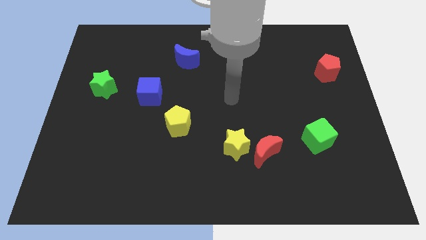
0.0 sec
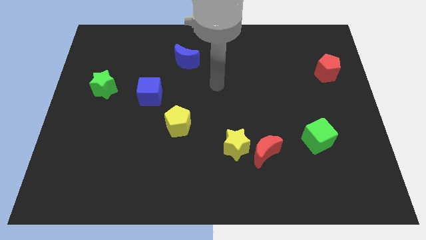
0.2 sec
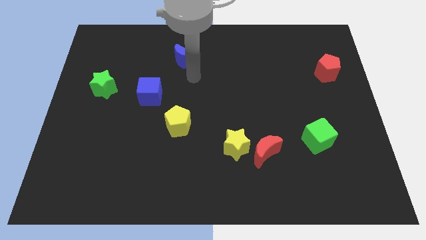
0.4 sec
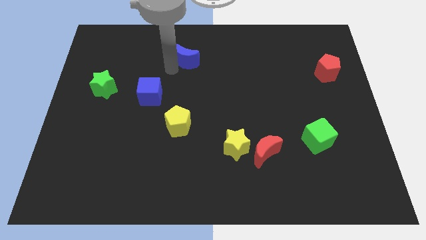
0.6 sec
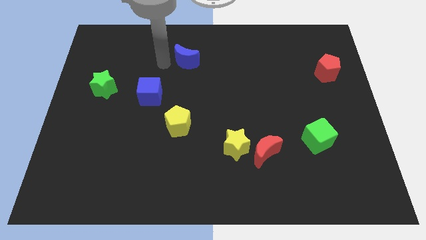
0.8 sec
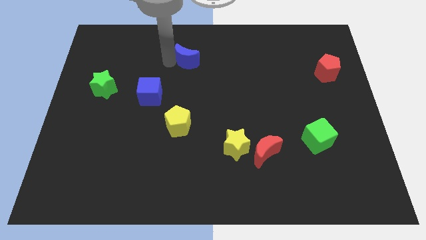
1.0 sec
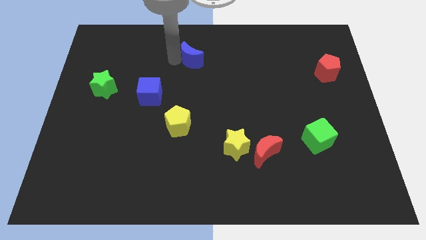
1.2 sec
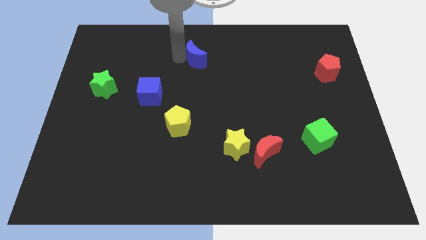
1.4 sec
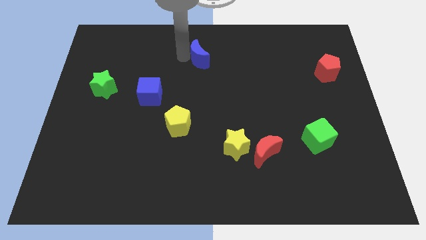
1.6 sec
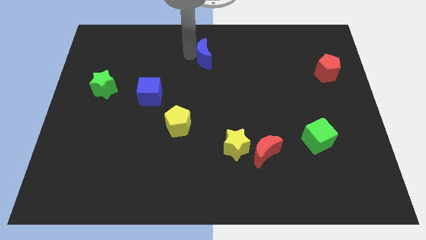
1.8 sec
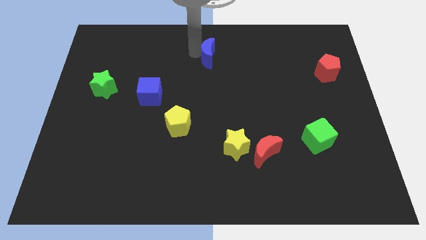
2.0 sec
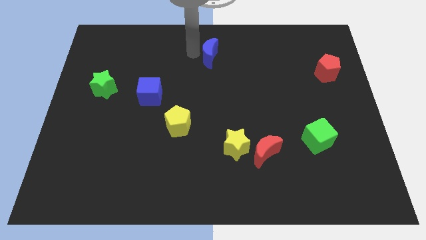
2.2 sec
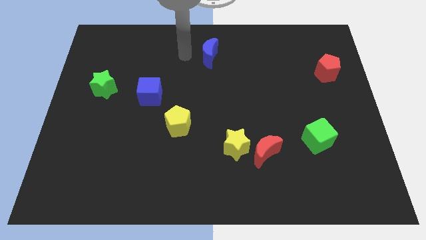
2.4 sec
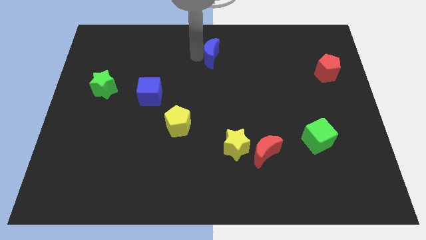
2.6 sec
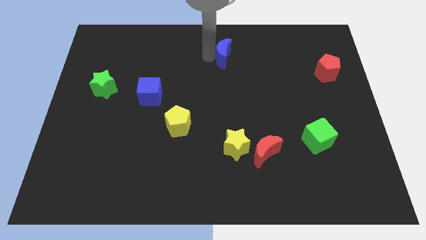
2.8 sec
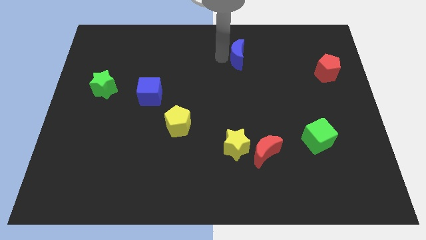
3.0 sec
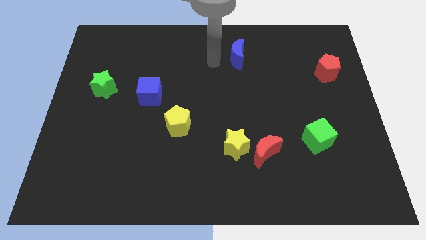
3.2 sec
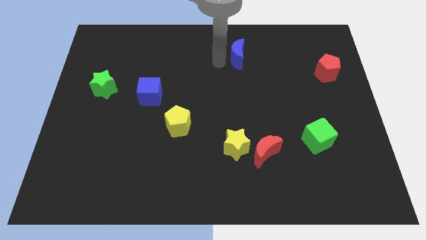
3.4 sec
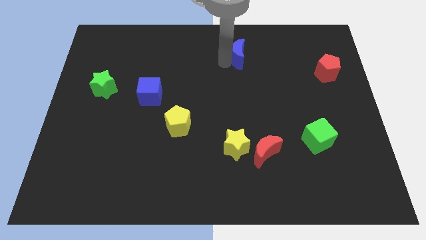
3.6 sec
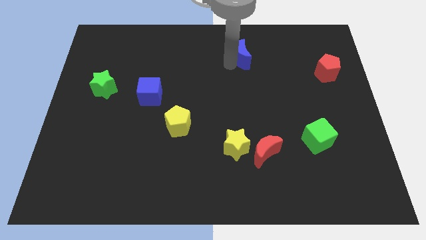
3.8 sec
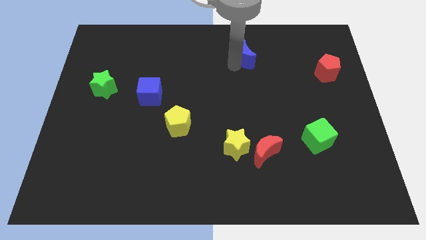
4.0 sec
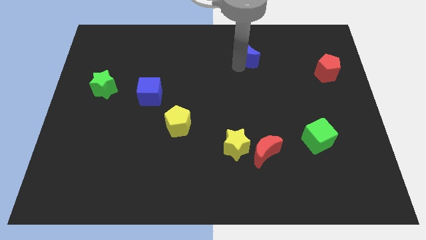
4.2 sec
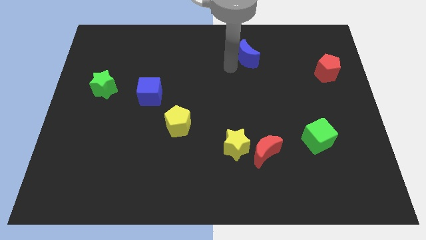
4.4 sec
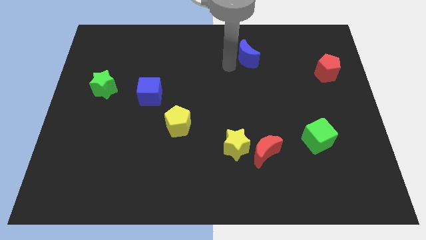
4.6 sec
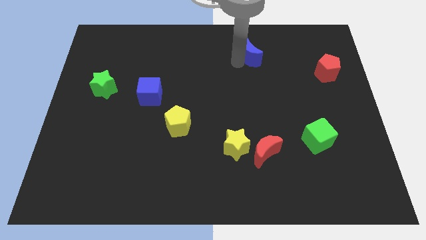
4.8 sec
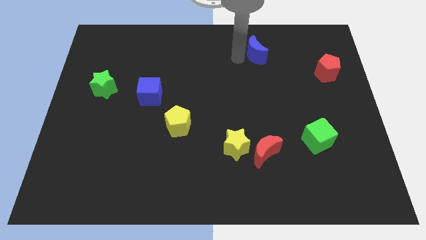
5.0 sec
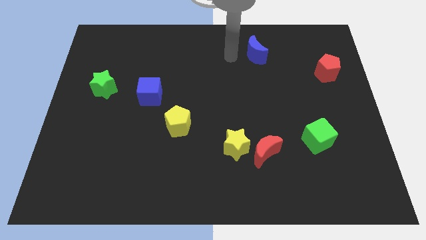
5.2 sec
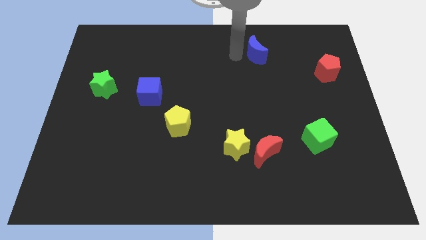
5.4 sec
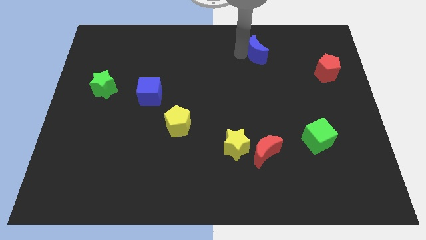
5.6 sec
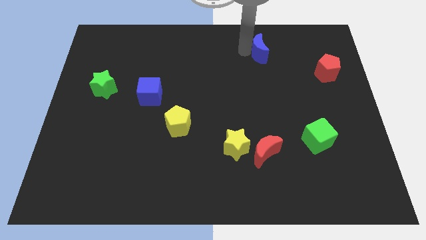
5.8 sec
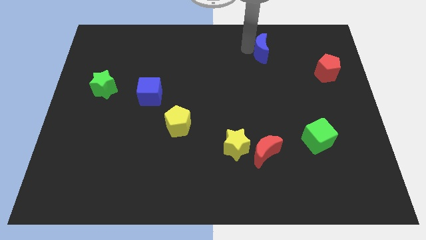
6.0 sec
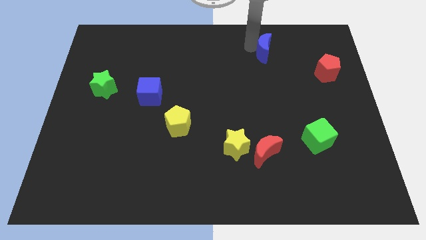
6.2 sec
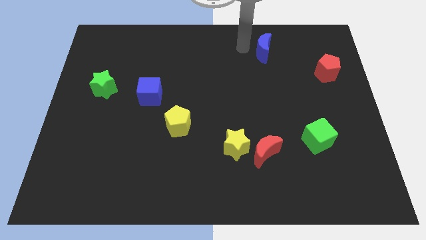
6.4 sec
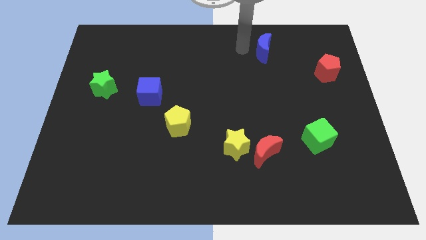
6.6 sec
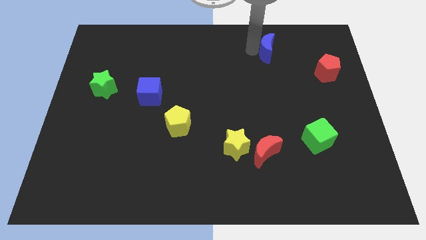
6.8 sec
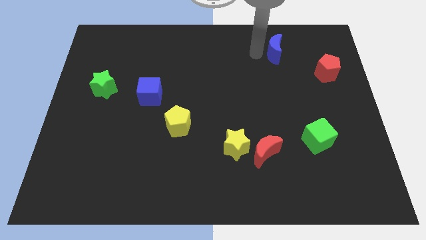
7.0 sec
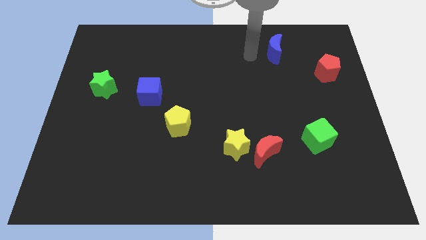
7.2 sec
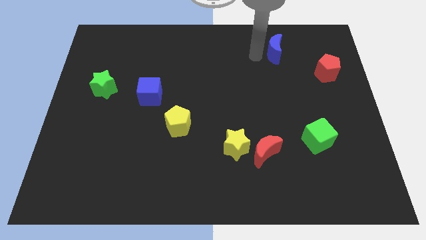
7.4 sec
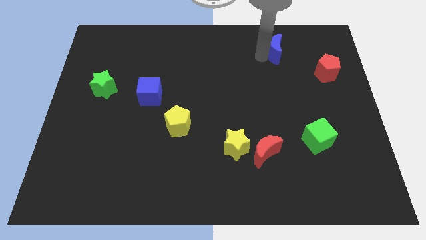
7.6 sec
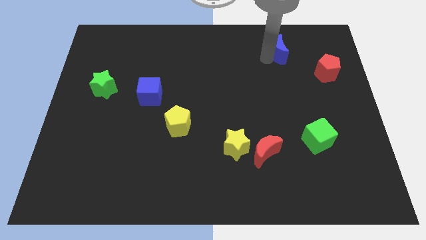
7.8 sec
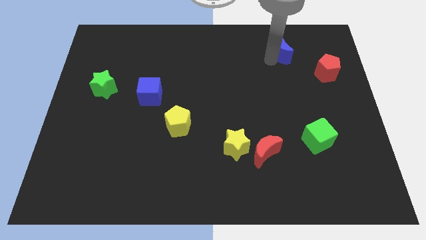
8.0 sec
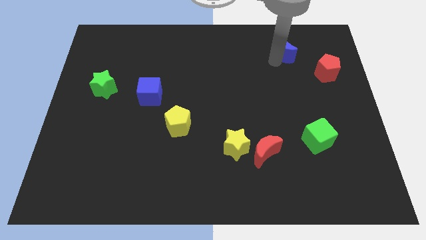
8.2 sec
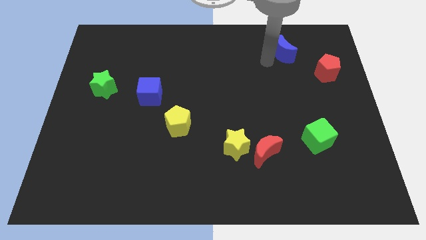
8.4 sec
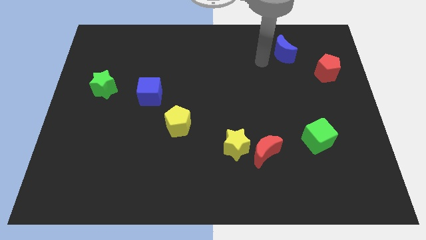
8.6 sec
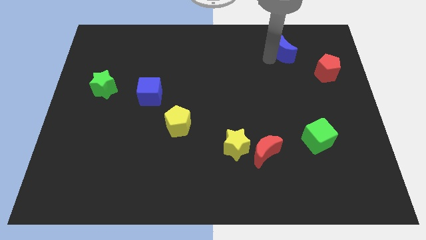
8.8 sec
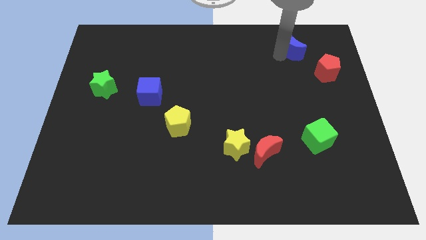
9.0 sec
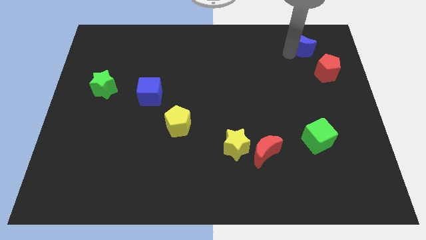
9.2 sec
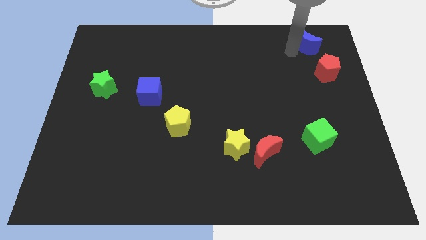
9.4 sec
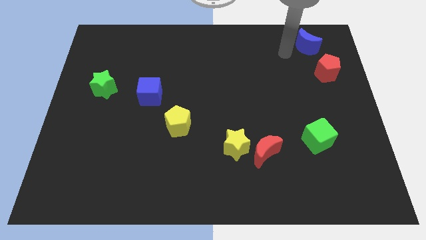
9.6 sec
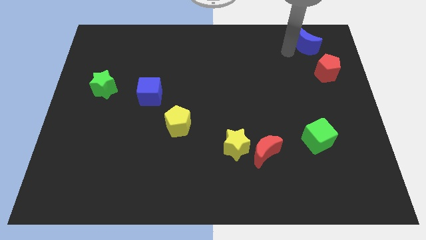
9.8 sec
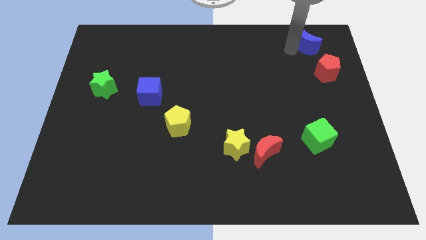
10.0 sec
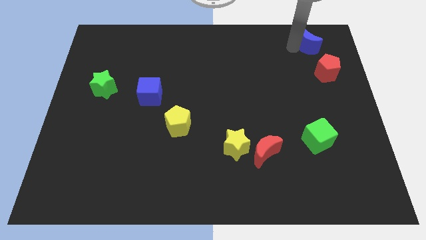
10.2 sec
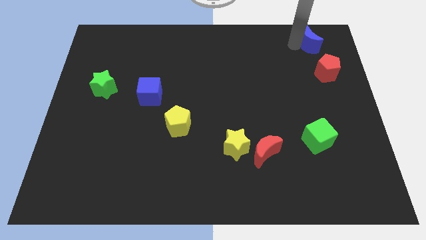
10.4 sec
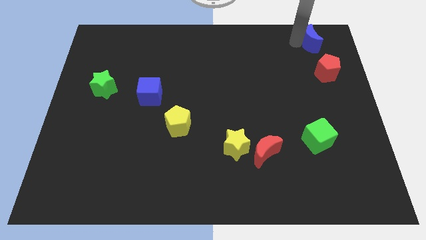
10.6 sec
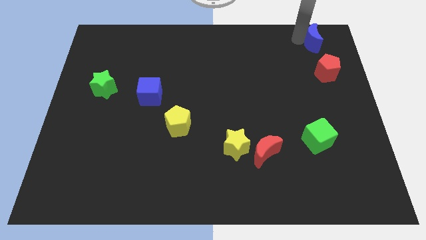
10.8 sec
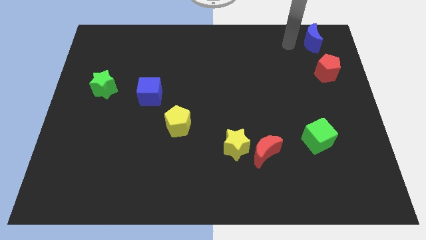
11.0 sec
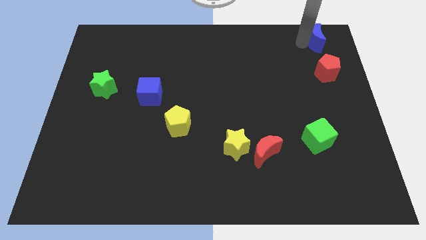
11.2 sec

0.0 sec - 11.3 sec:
put the blue moon to the top right
